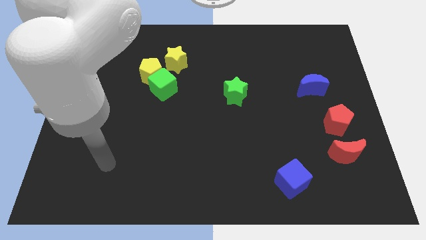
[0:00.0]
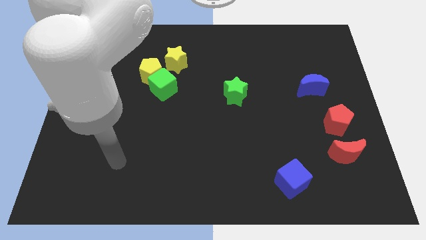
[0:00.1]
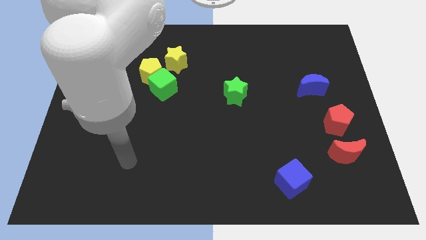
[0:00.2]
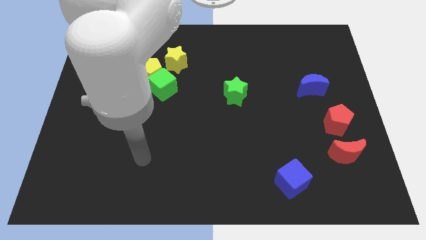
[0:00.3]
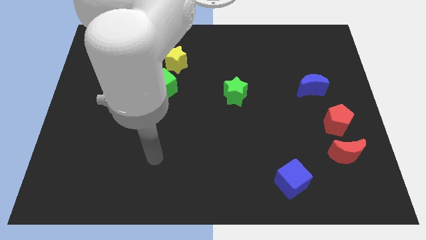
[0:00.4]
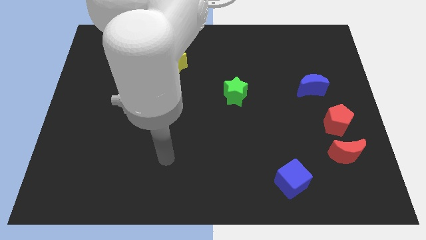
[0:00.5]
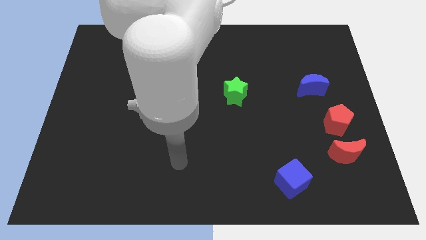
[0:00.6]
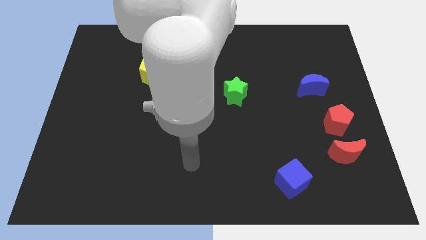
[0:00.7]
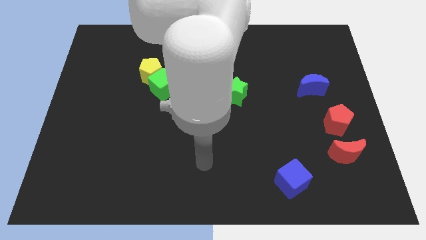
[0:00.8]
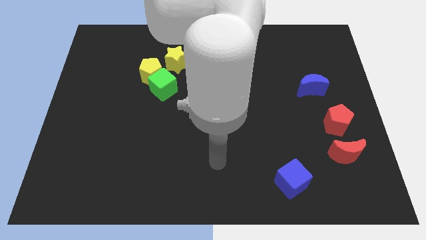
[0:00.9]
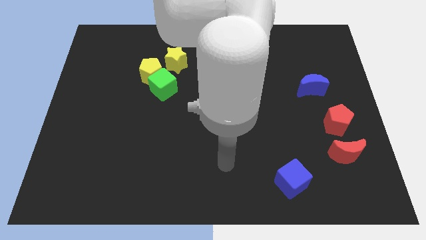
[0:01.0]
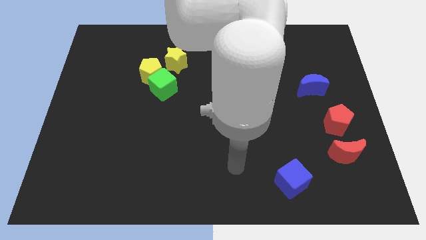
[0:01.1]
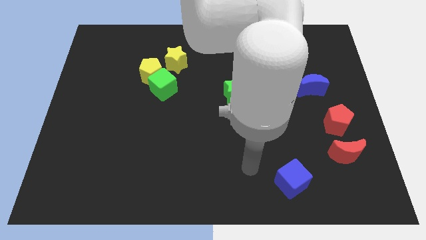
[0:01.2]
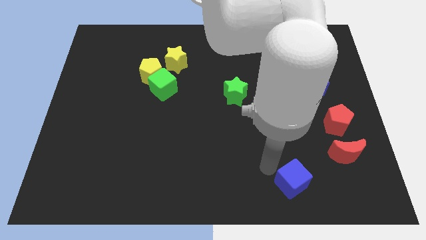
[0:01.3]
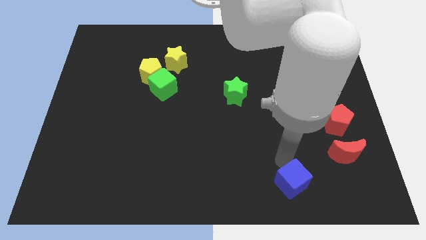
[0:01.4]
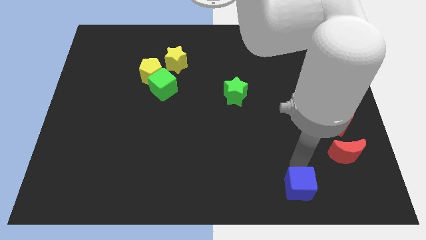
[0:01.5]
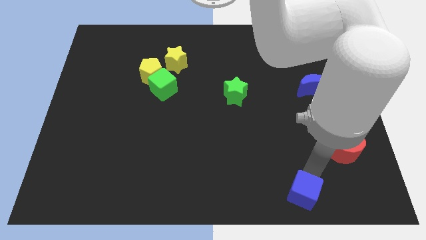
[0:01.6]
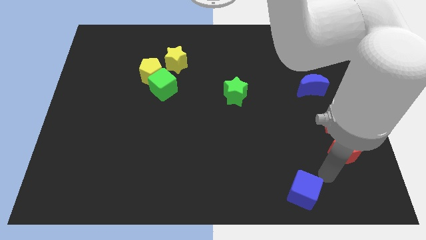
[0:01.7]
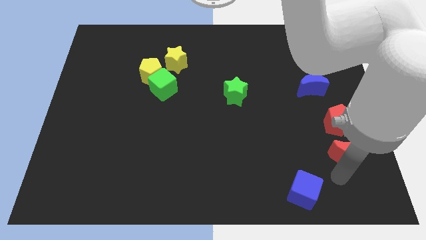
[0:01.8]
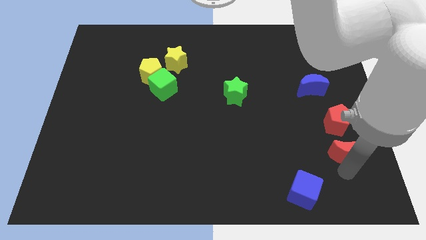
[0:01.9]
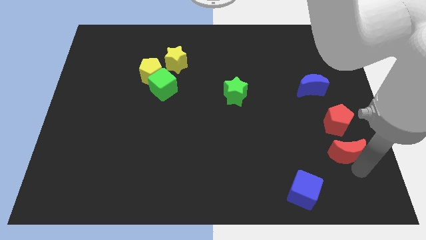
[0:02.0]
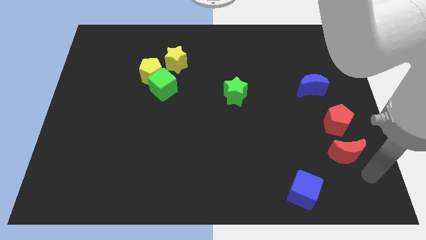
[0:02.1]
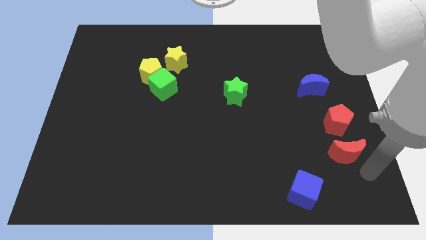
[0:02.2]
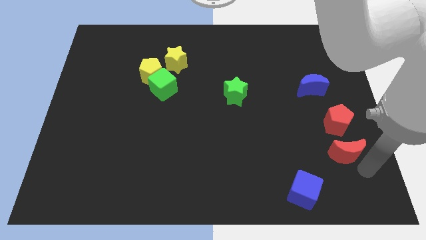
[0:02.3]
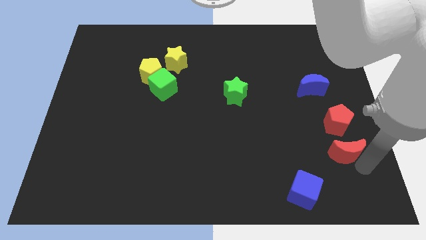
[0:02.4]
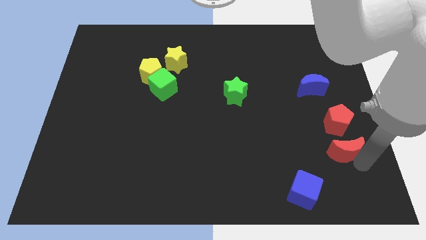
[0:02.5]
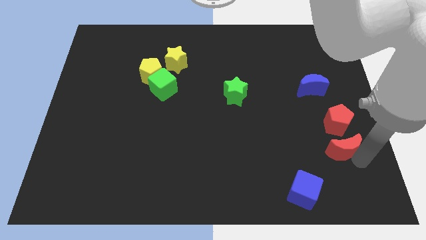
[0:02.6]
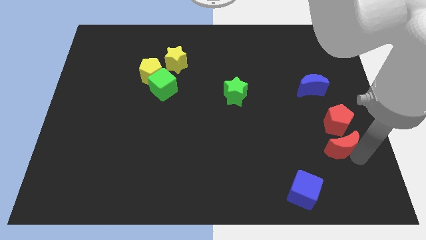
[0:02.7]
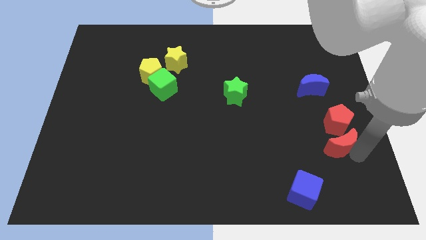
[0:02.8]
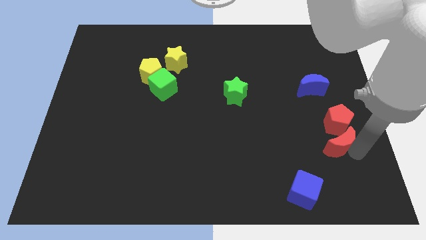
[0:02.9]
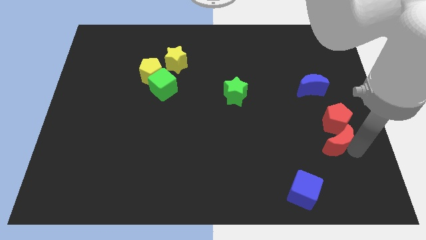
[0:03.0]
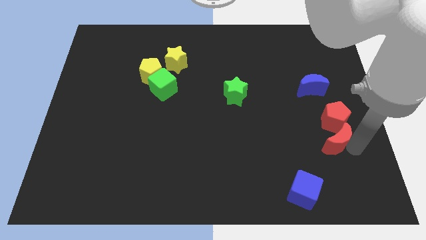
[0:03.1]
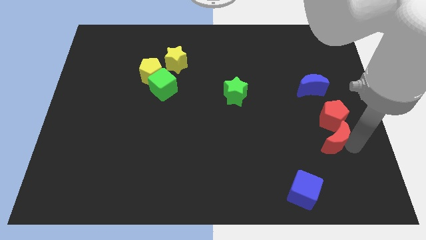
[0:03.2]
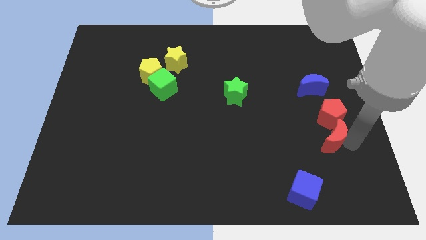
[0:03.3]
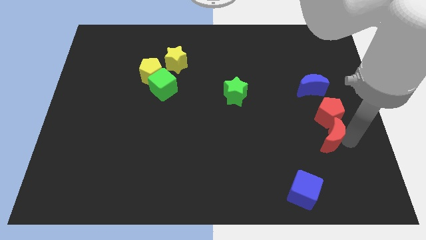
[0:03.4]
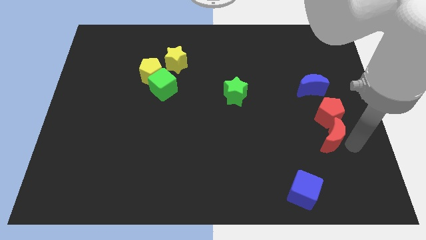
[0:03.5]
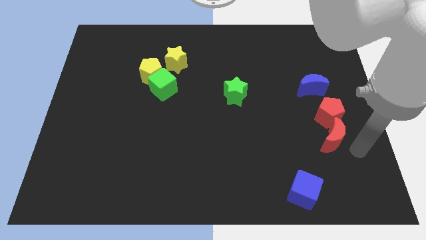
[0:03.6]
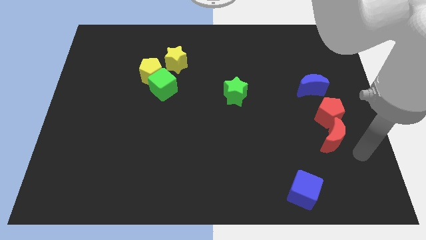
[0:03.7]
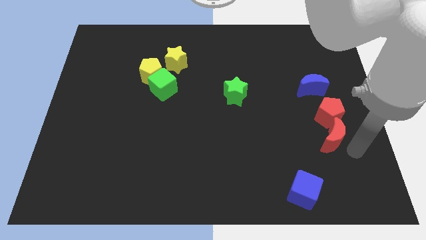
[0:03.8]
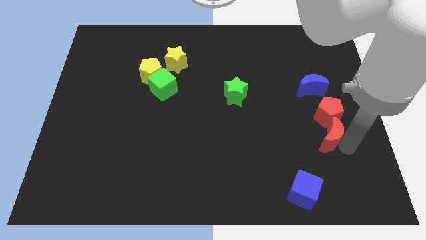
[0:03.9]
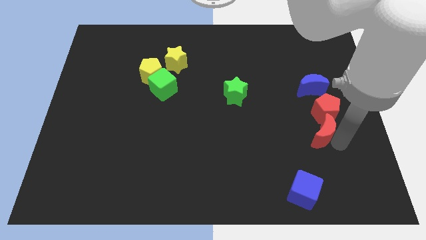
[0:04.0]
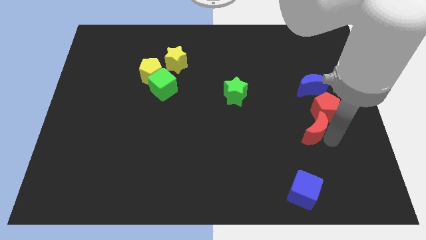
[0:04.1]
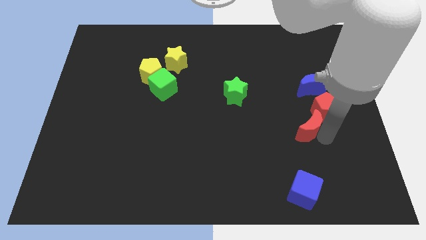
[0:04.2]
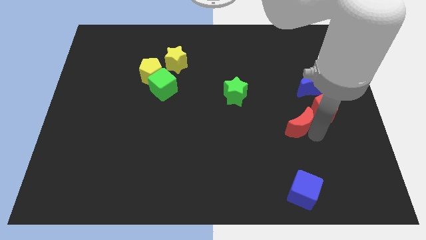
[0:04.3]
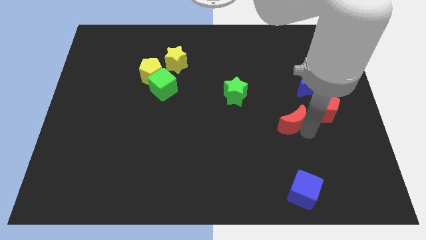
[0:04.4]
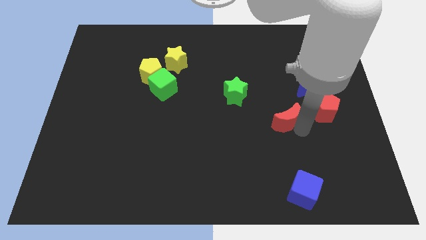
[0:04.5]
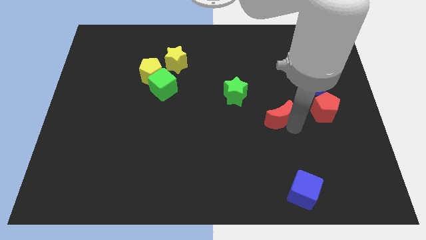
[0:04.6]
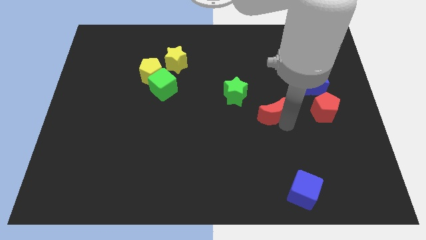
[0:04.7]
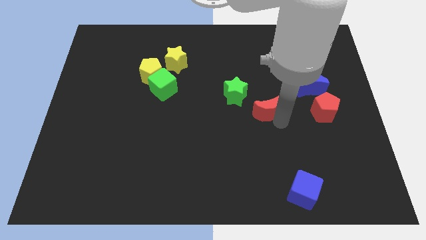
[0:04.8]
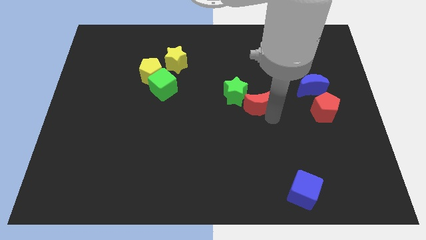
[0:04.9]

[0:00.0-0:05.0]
move the red moon upwards and left diagonally

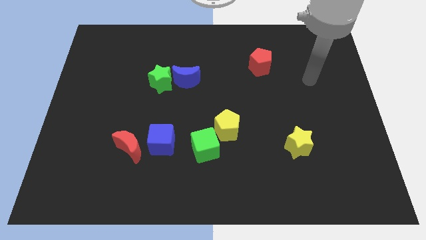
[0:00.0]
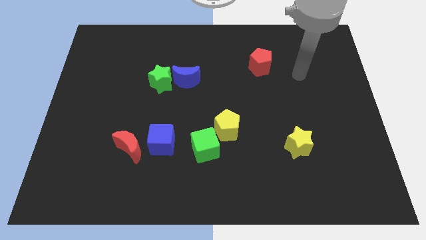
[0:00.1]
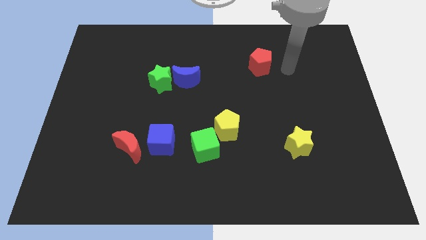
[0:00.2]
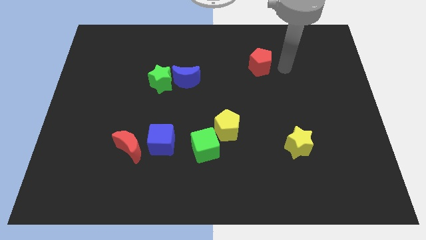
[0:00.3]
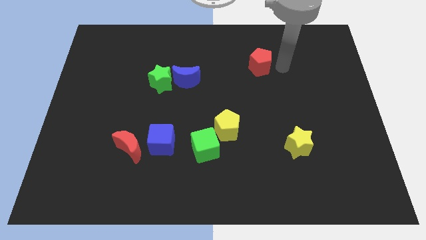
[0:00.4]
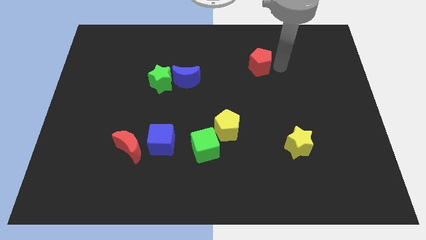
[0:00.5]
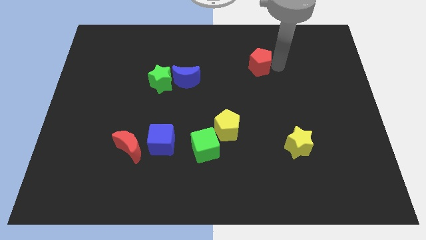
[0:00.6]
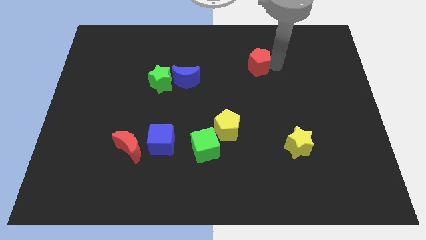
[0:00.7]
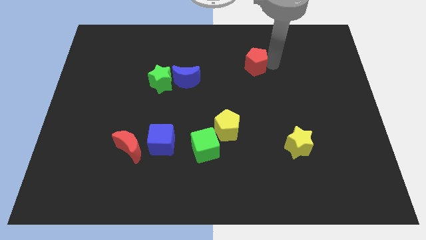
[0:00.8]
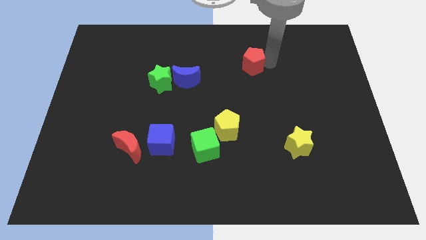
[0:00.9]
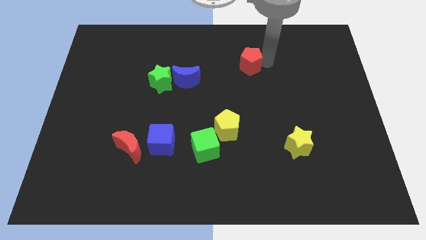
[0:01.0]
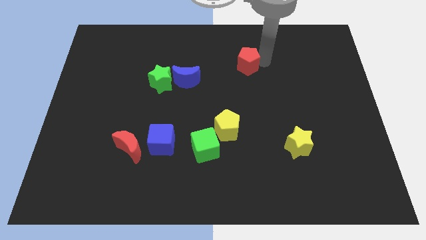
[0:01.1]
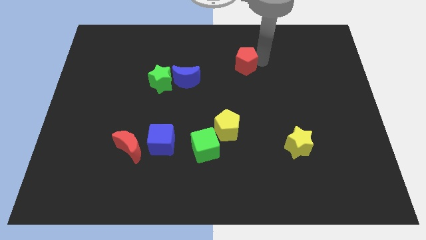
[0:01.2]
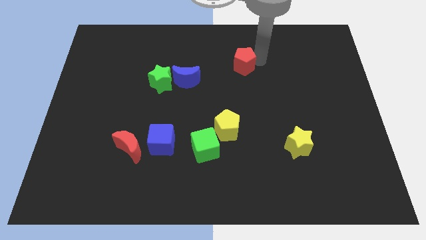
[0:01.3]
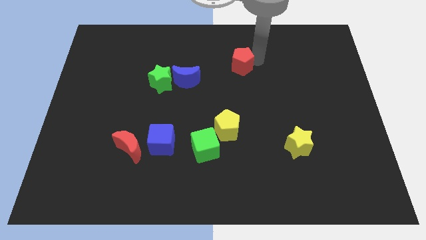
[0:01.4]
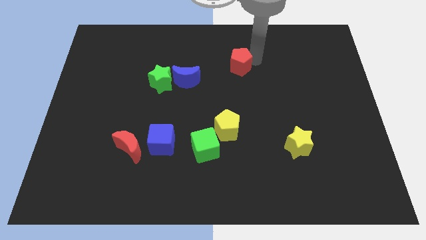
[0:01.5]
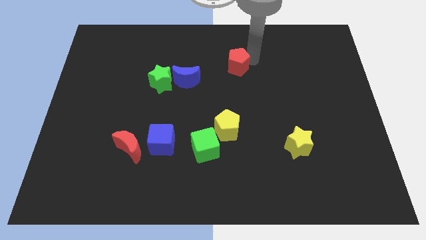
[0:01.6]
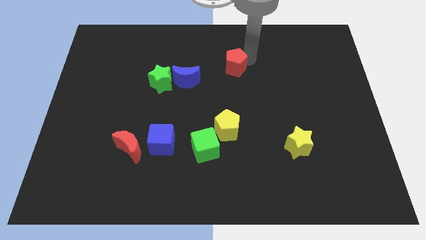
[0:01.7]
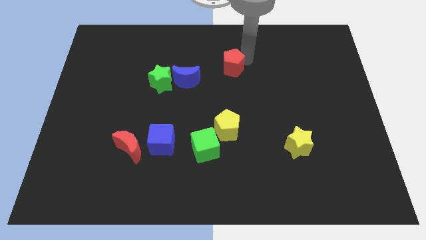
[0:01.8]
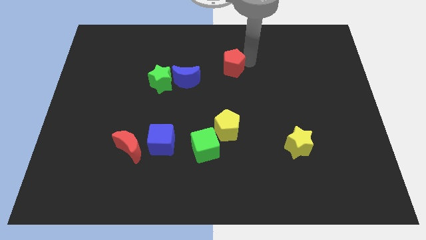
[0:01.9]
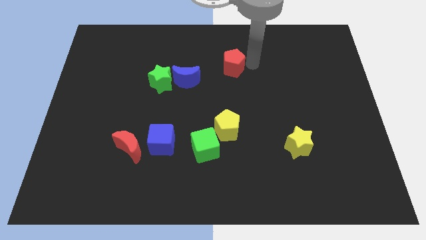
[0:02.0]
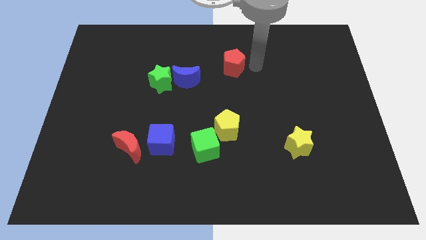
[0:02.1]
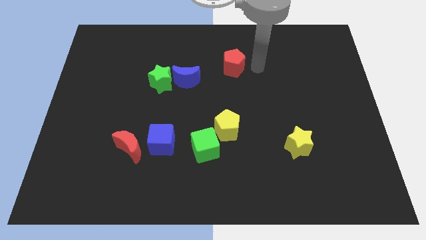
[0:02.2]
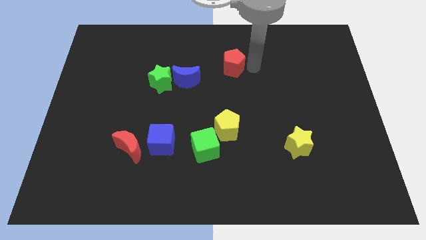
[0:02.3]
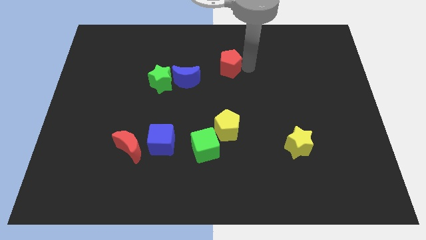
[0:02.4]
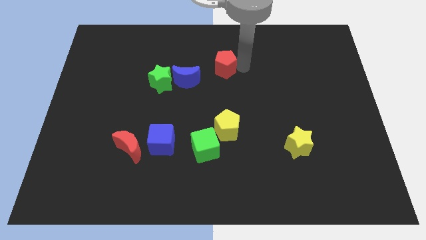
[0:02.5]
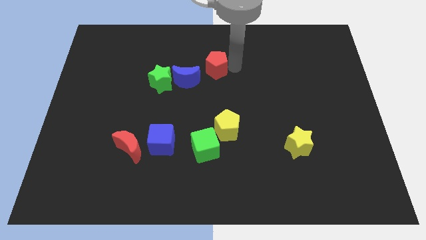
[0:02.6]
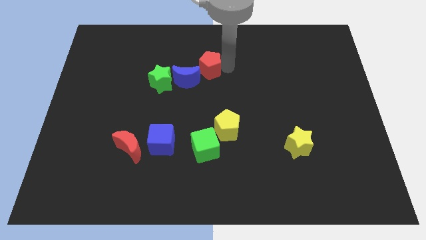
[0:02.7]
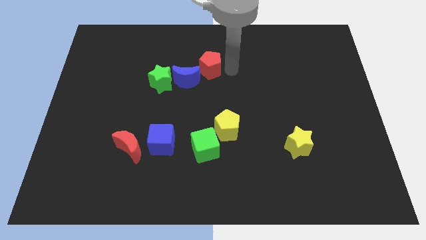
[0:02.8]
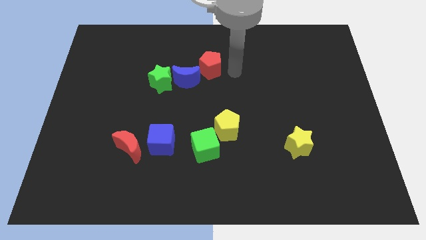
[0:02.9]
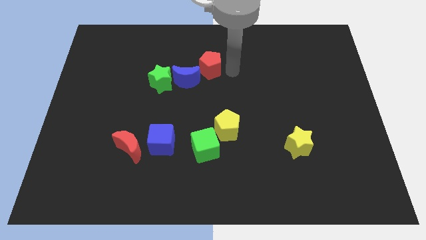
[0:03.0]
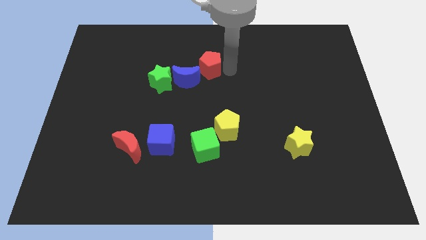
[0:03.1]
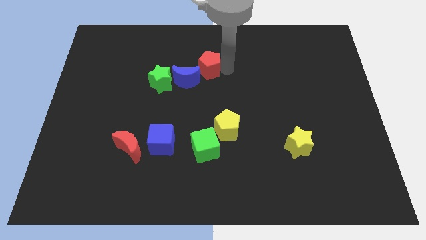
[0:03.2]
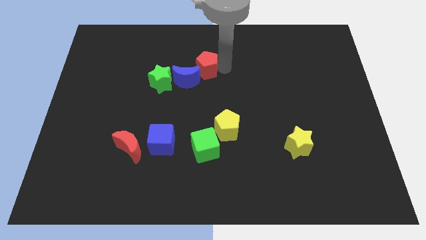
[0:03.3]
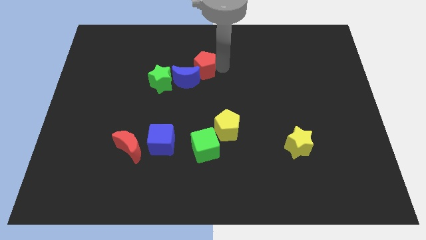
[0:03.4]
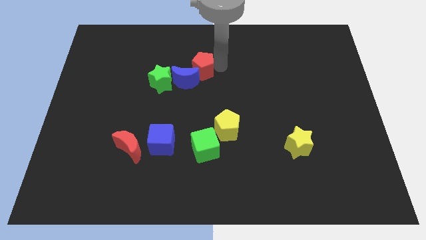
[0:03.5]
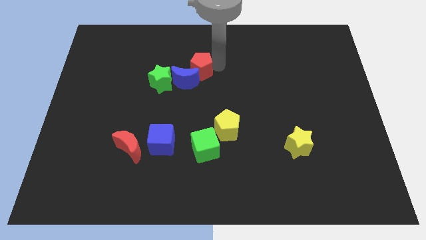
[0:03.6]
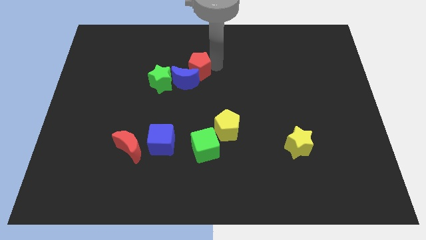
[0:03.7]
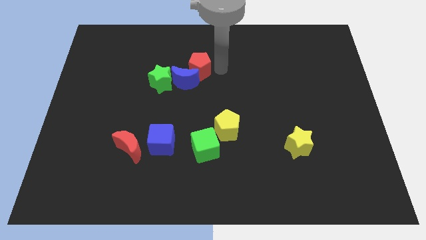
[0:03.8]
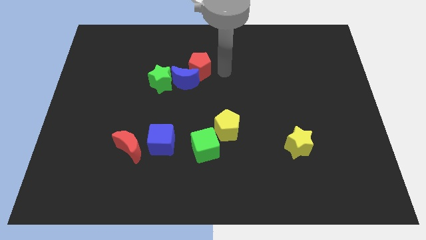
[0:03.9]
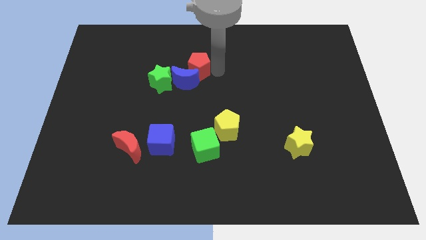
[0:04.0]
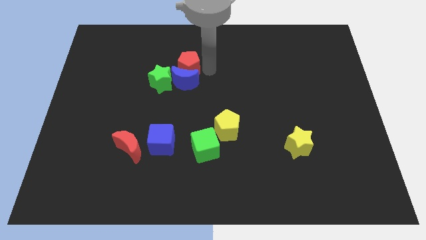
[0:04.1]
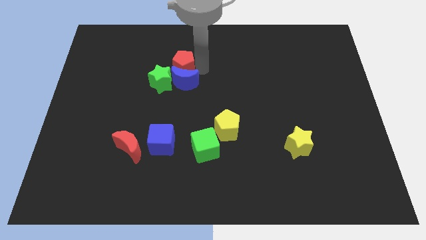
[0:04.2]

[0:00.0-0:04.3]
push the red pentagon to the left
